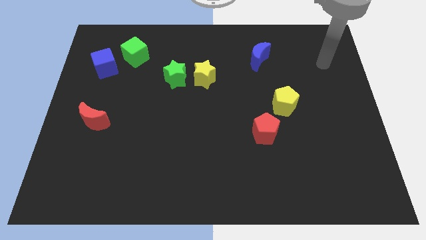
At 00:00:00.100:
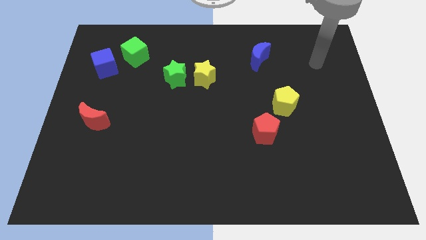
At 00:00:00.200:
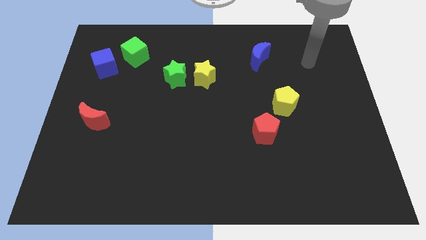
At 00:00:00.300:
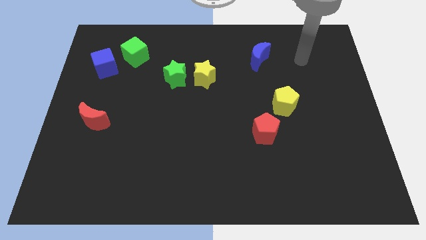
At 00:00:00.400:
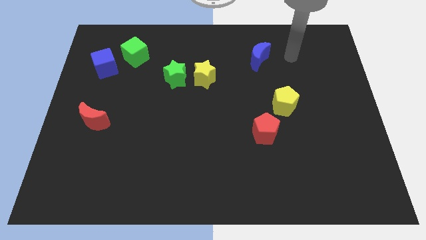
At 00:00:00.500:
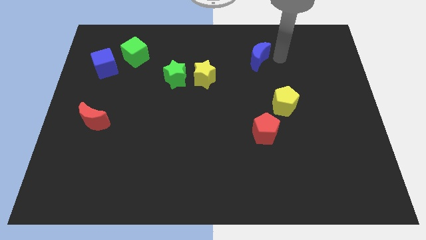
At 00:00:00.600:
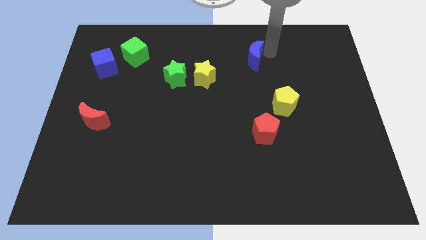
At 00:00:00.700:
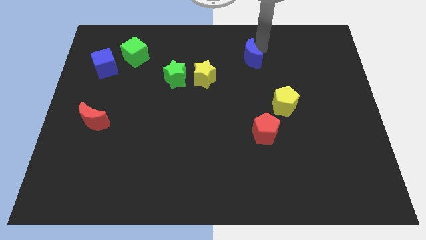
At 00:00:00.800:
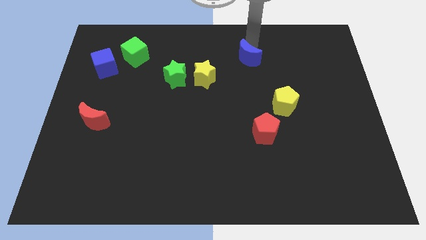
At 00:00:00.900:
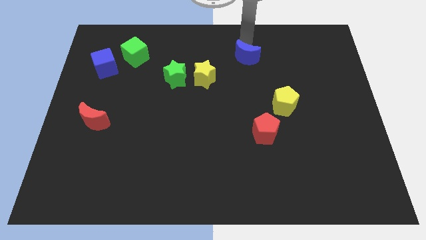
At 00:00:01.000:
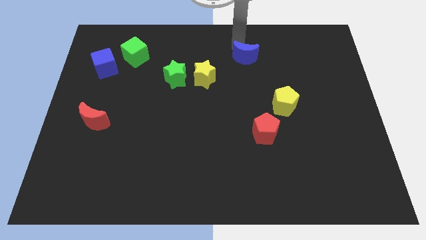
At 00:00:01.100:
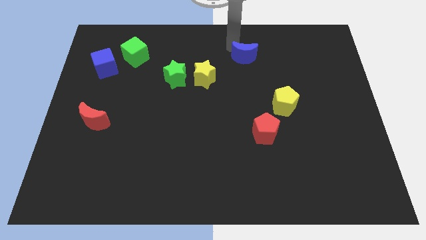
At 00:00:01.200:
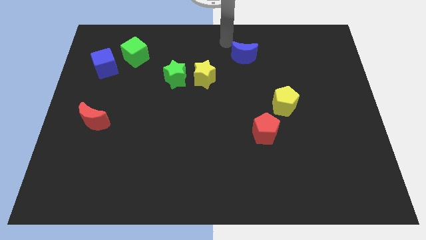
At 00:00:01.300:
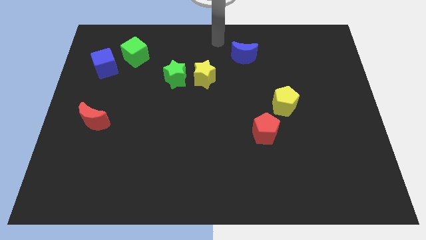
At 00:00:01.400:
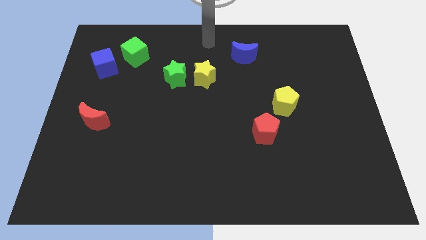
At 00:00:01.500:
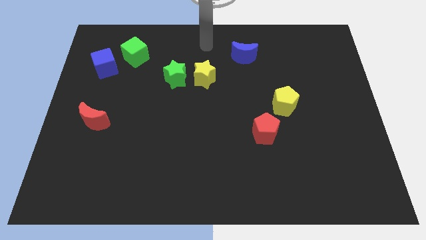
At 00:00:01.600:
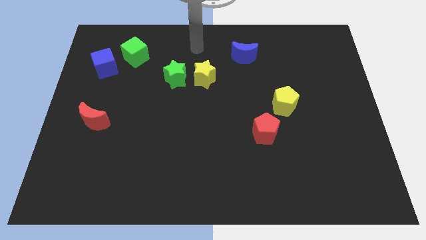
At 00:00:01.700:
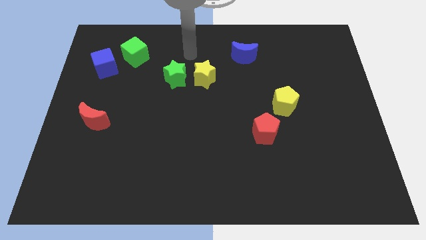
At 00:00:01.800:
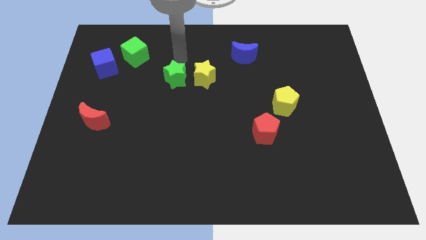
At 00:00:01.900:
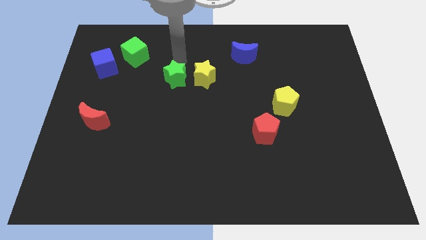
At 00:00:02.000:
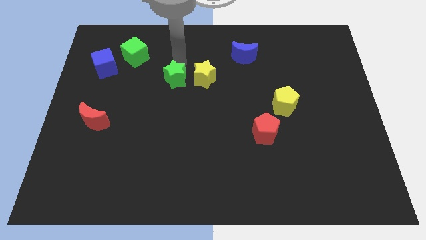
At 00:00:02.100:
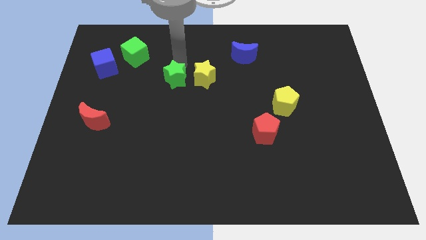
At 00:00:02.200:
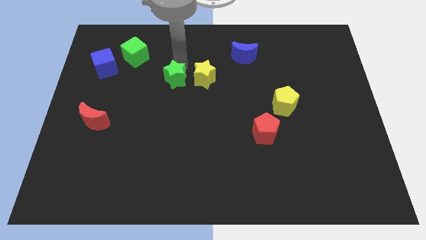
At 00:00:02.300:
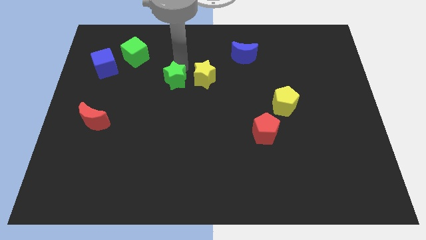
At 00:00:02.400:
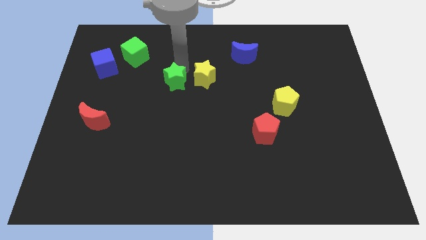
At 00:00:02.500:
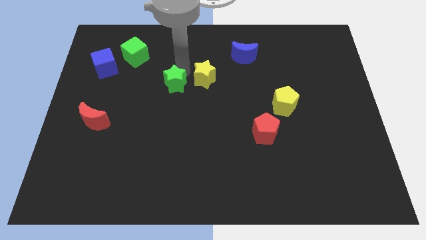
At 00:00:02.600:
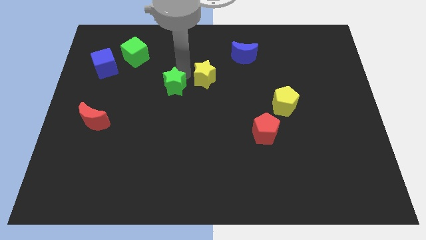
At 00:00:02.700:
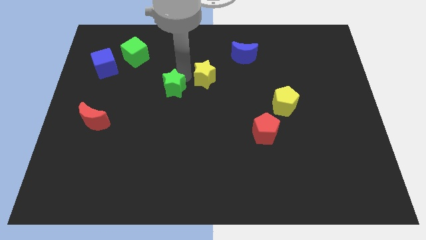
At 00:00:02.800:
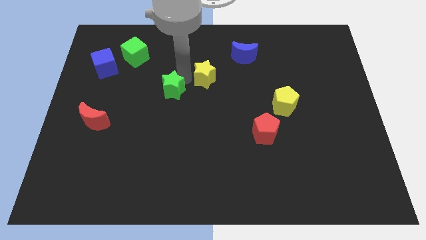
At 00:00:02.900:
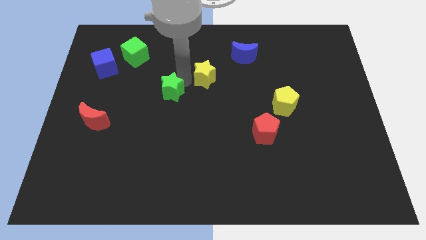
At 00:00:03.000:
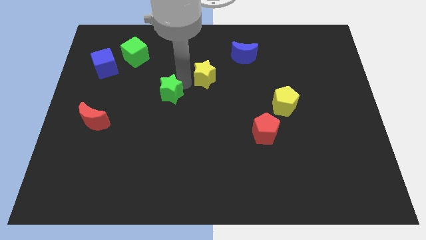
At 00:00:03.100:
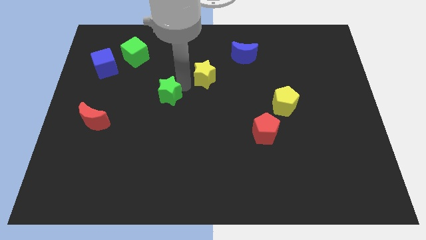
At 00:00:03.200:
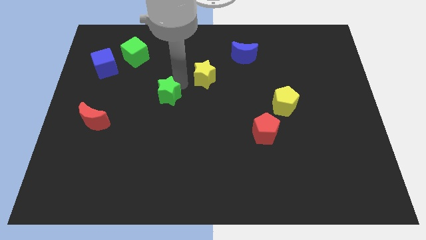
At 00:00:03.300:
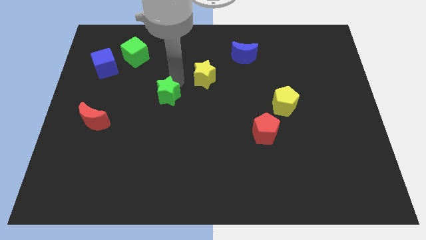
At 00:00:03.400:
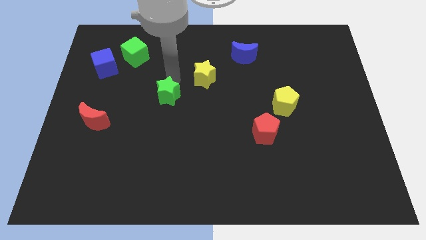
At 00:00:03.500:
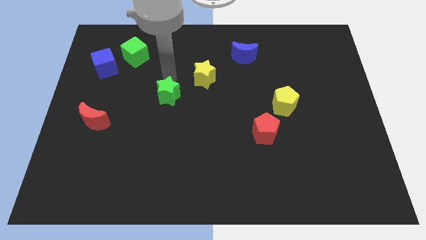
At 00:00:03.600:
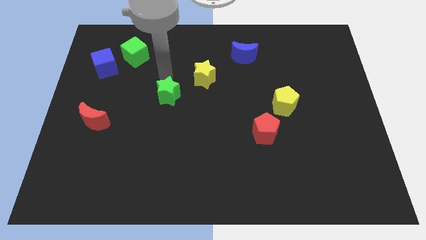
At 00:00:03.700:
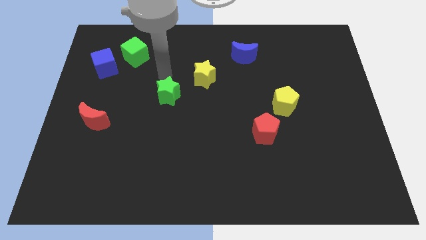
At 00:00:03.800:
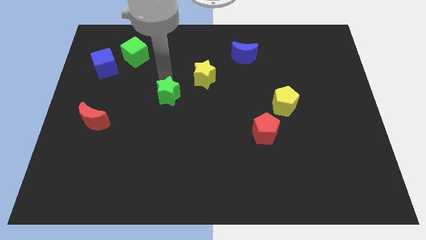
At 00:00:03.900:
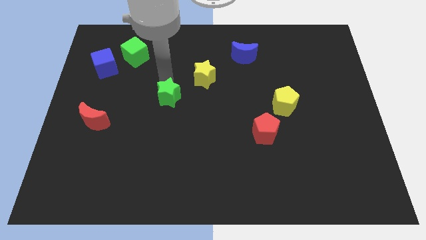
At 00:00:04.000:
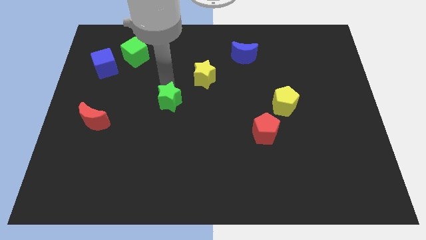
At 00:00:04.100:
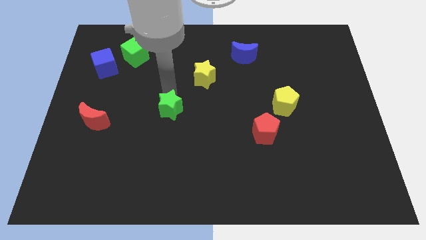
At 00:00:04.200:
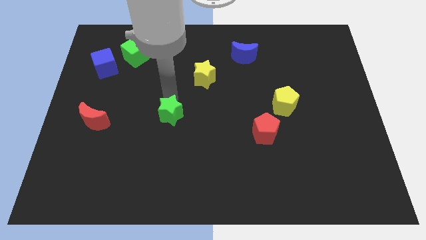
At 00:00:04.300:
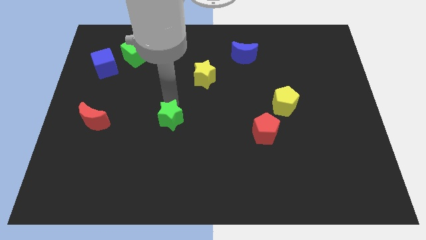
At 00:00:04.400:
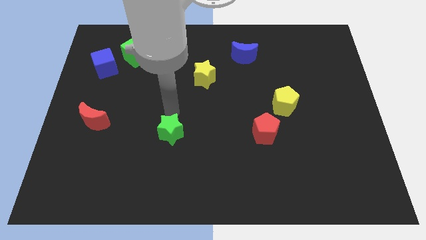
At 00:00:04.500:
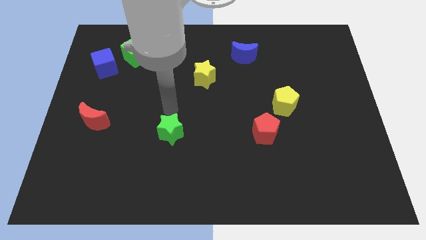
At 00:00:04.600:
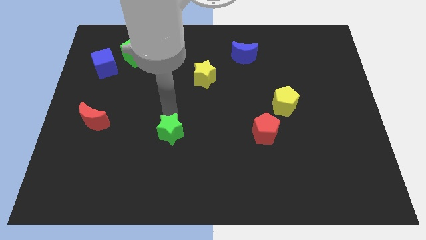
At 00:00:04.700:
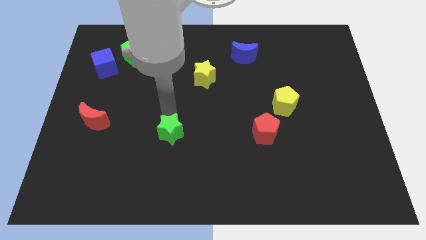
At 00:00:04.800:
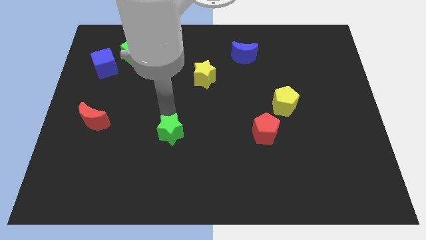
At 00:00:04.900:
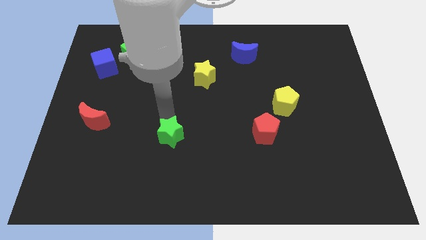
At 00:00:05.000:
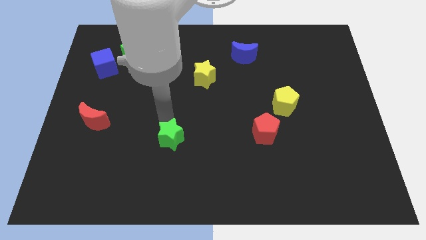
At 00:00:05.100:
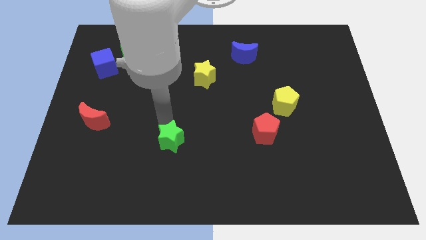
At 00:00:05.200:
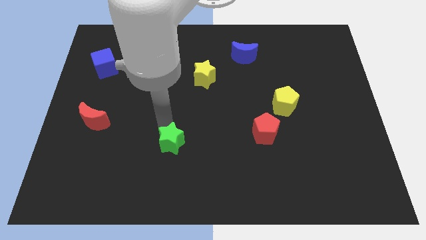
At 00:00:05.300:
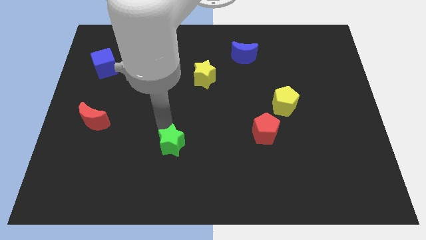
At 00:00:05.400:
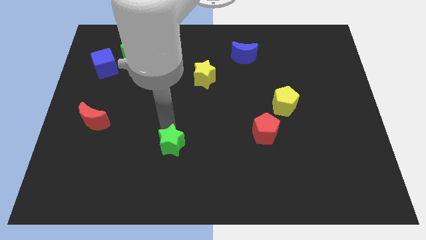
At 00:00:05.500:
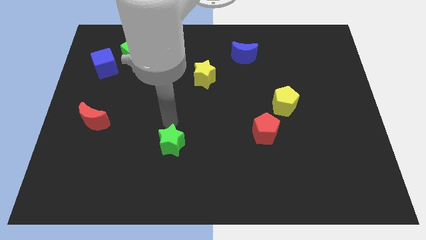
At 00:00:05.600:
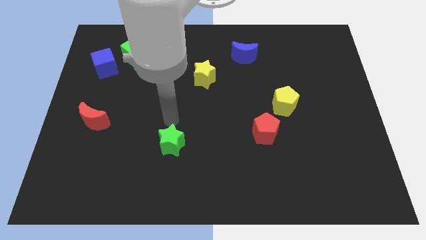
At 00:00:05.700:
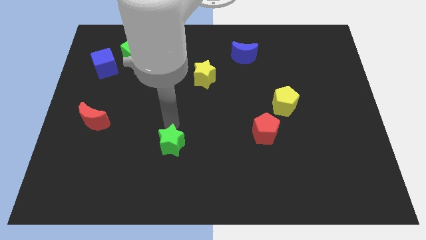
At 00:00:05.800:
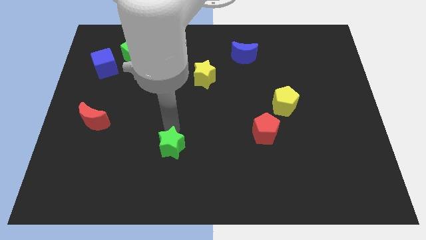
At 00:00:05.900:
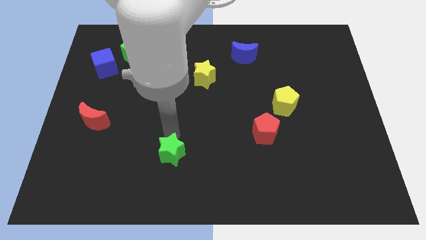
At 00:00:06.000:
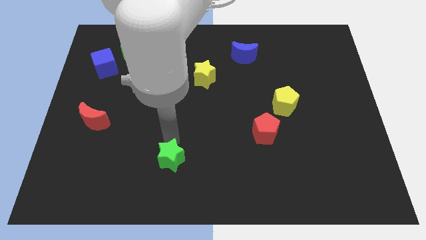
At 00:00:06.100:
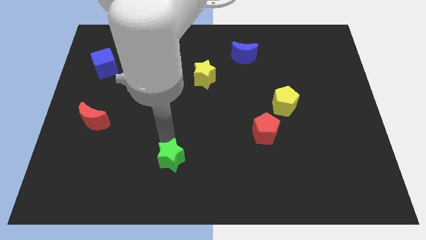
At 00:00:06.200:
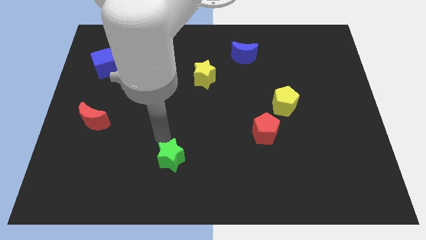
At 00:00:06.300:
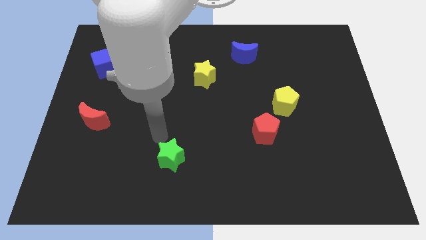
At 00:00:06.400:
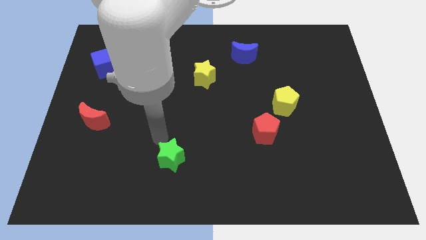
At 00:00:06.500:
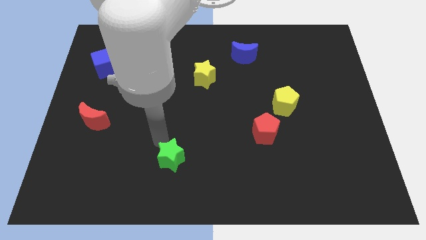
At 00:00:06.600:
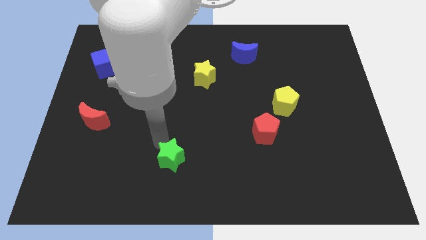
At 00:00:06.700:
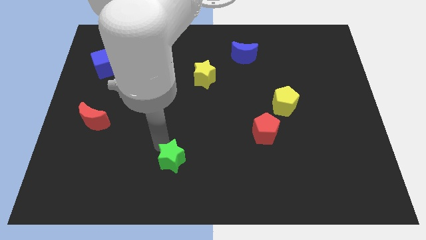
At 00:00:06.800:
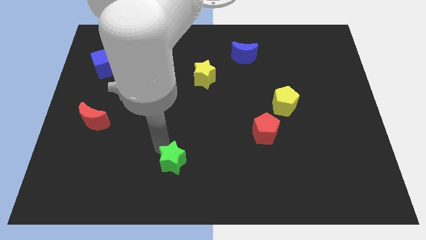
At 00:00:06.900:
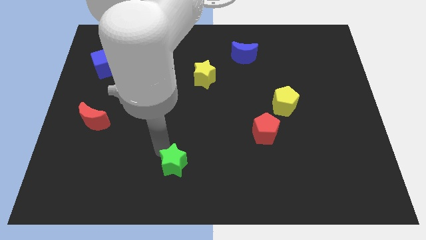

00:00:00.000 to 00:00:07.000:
put the green star to the bottom

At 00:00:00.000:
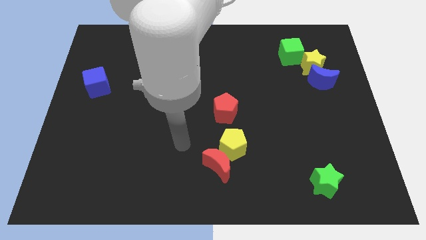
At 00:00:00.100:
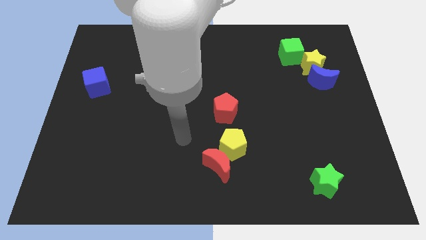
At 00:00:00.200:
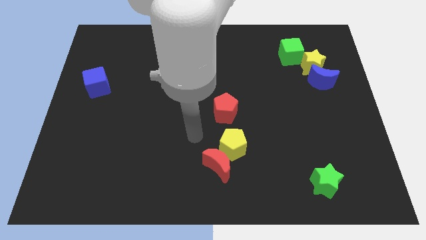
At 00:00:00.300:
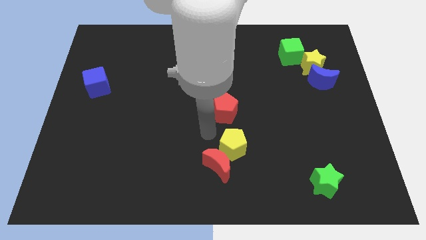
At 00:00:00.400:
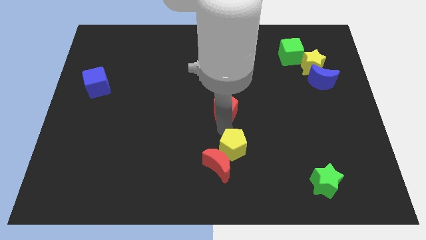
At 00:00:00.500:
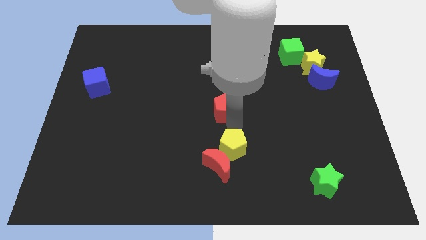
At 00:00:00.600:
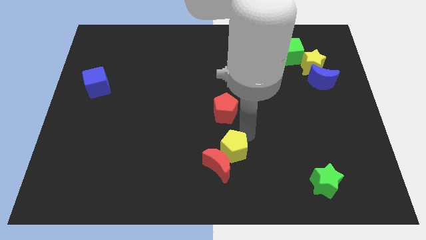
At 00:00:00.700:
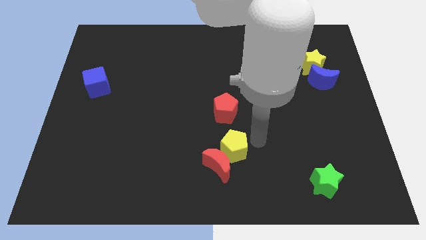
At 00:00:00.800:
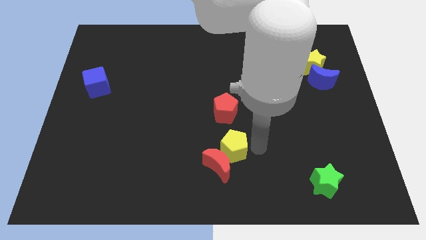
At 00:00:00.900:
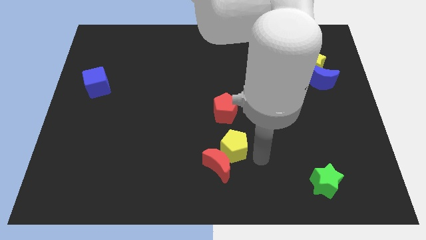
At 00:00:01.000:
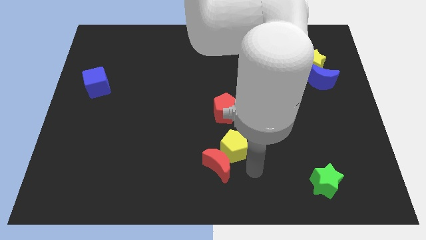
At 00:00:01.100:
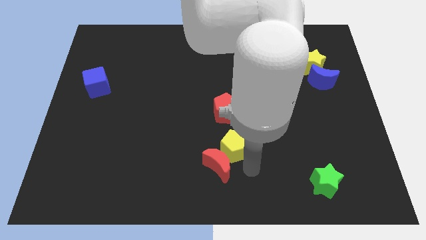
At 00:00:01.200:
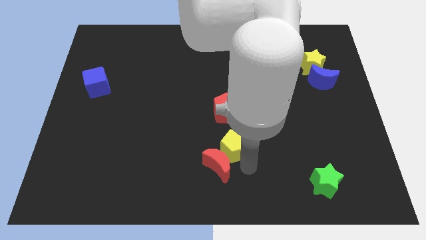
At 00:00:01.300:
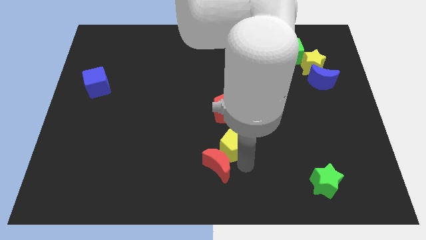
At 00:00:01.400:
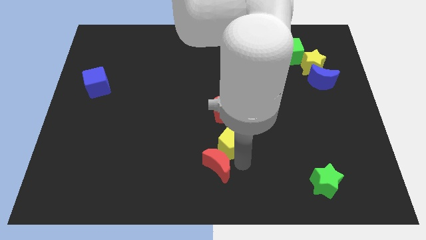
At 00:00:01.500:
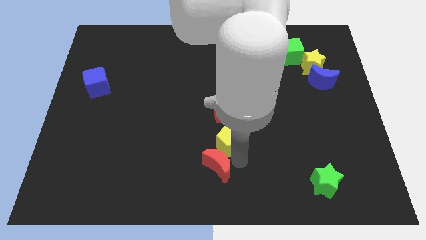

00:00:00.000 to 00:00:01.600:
push the yellow pentagon to the middle of the board
